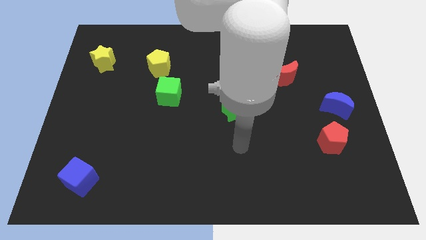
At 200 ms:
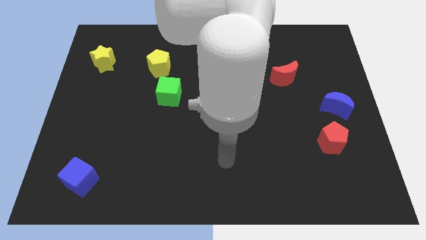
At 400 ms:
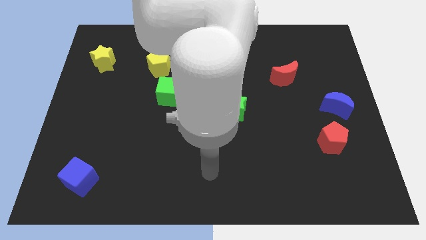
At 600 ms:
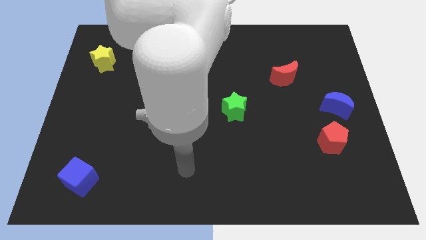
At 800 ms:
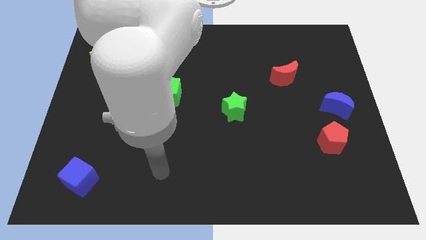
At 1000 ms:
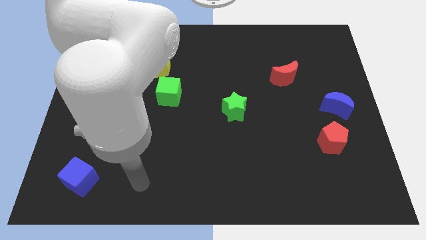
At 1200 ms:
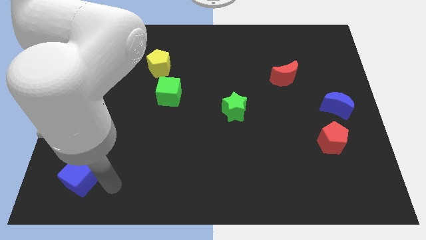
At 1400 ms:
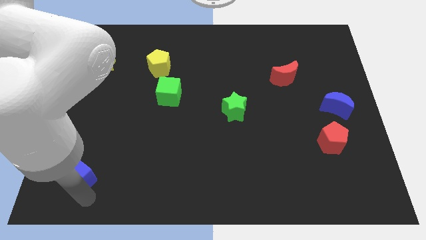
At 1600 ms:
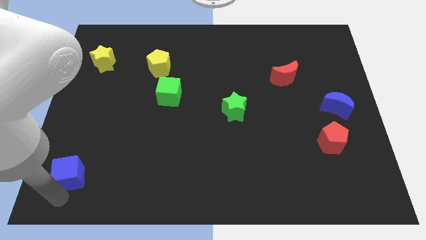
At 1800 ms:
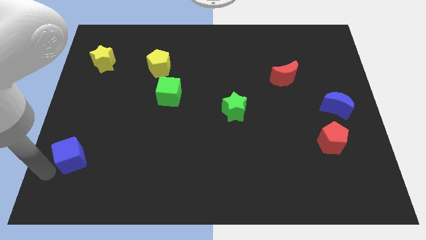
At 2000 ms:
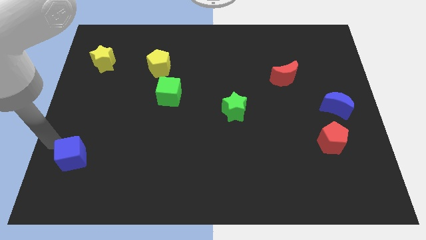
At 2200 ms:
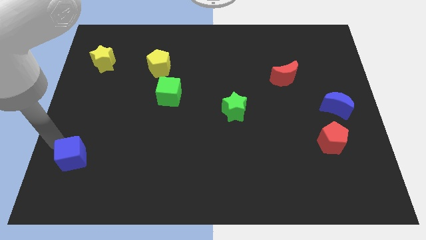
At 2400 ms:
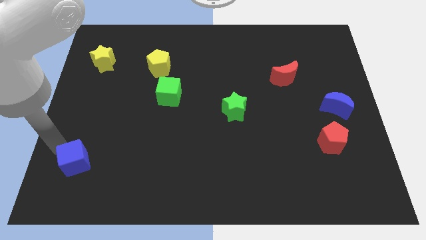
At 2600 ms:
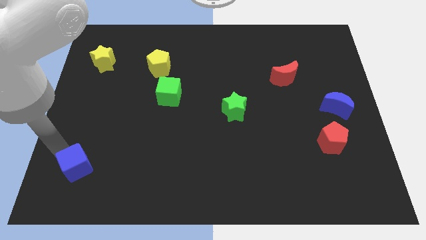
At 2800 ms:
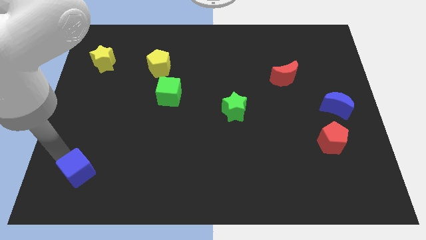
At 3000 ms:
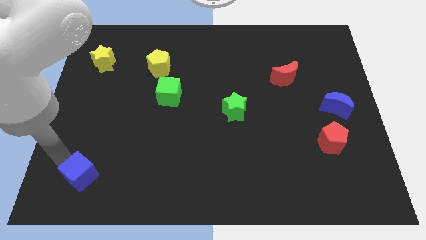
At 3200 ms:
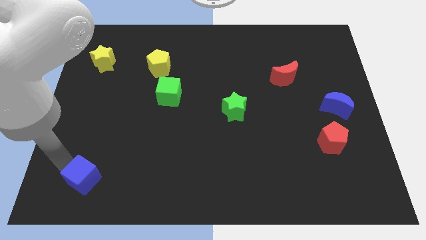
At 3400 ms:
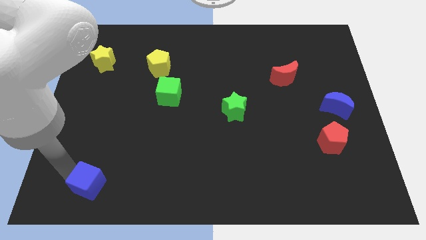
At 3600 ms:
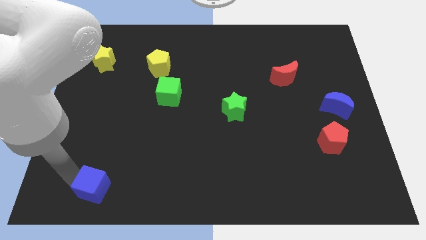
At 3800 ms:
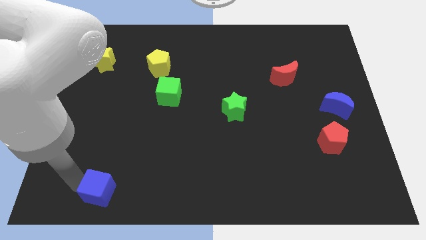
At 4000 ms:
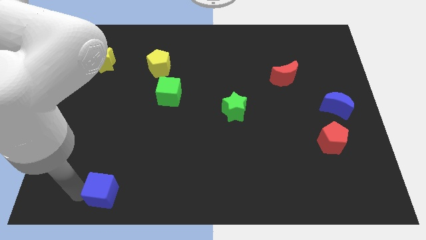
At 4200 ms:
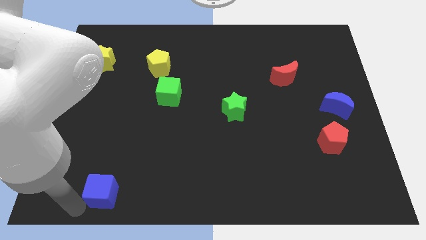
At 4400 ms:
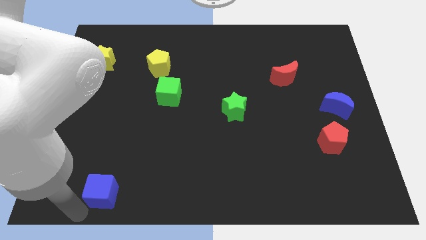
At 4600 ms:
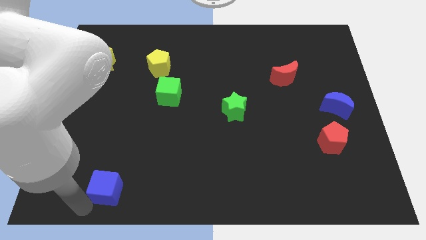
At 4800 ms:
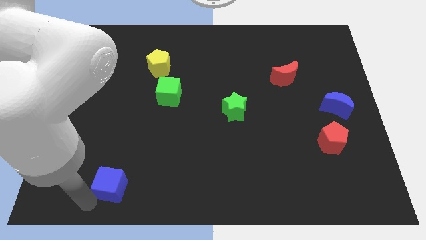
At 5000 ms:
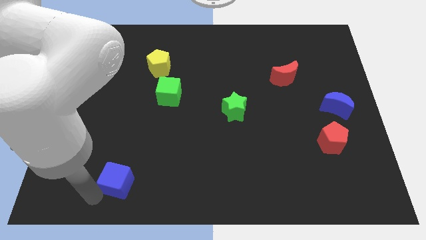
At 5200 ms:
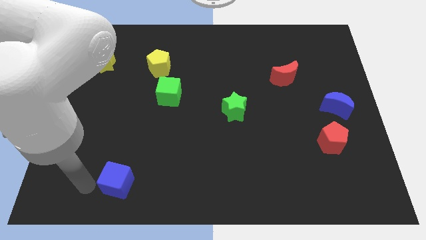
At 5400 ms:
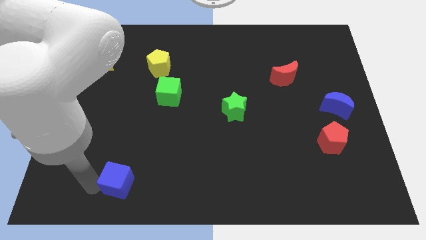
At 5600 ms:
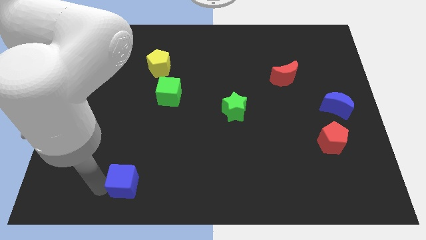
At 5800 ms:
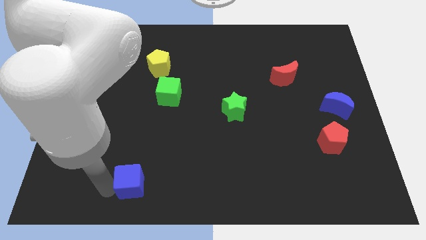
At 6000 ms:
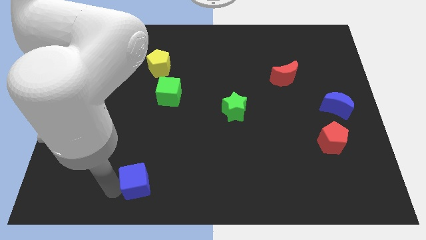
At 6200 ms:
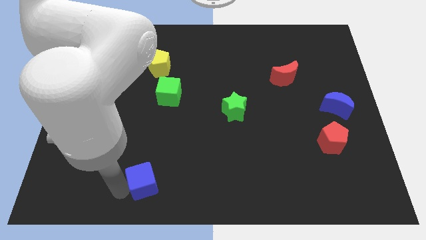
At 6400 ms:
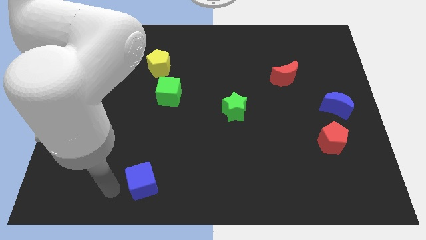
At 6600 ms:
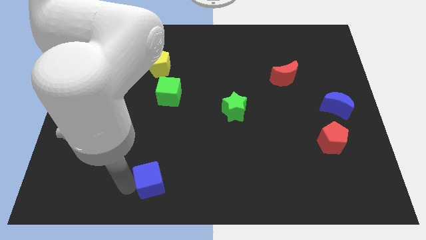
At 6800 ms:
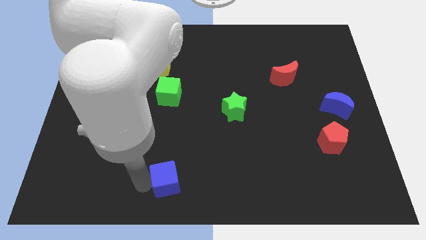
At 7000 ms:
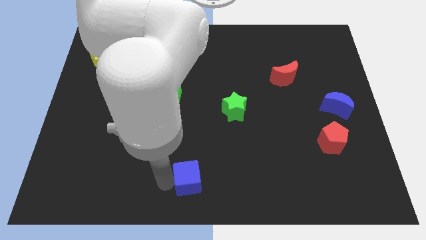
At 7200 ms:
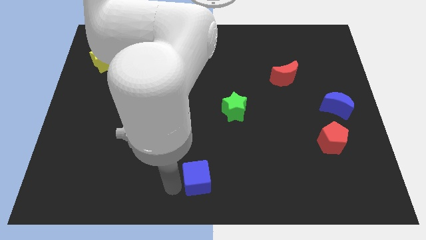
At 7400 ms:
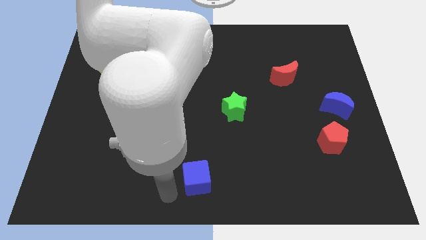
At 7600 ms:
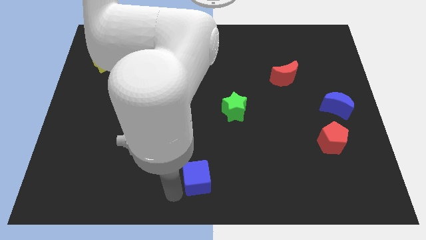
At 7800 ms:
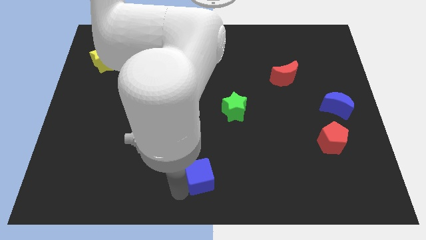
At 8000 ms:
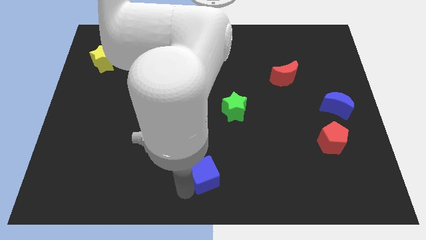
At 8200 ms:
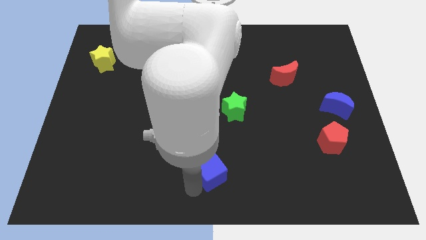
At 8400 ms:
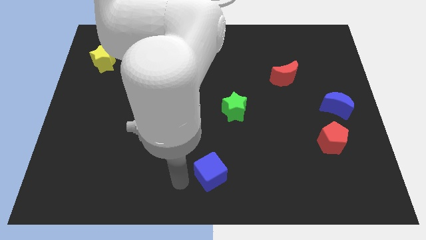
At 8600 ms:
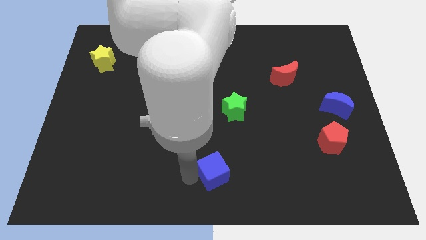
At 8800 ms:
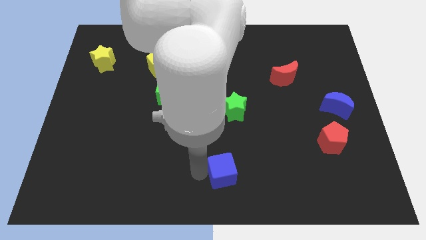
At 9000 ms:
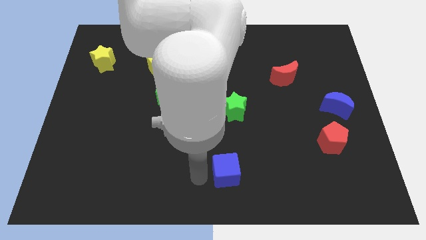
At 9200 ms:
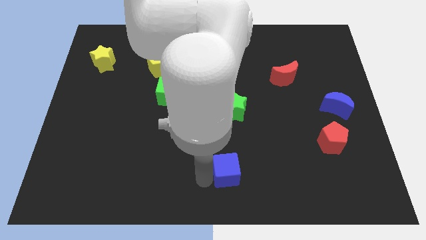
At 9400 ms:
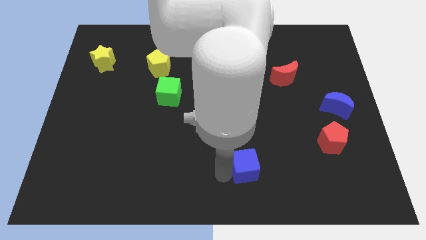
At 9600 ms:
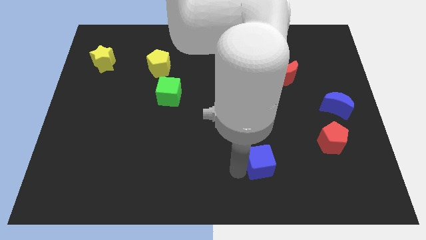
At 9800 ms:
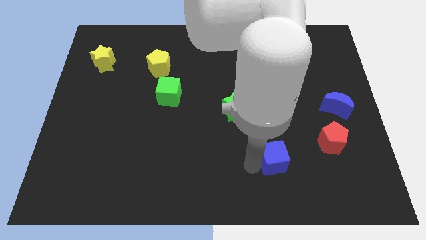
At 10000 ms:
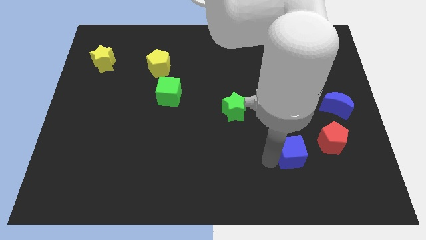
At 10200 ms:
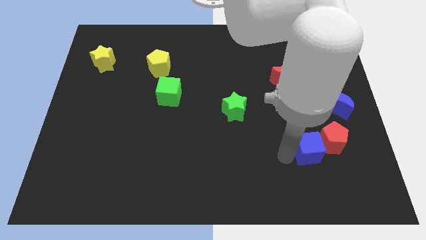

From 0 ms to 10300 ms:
push the blue cube close to the red pentagon

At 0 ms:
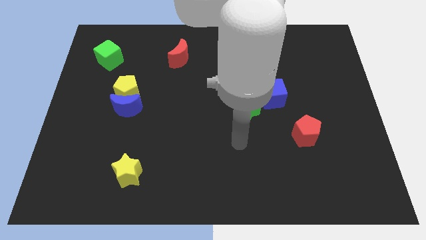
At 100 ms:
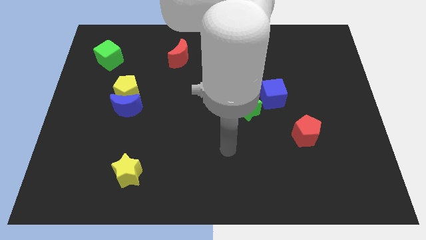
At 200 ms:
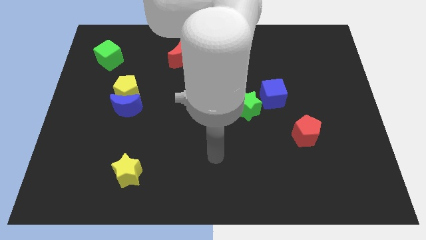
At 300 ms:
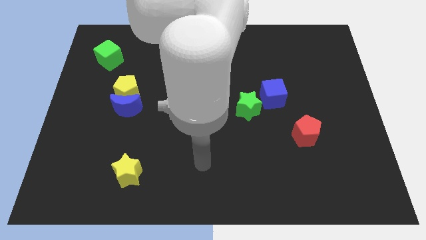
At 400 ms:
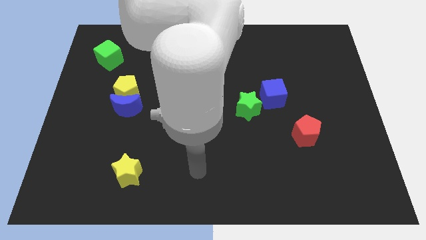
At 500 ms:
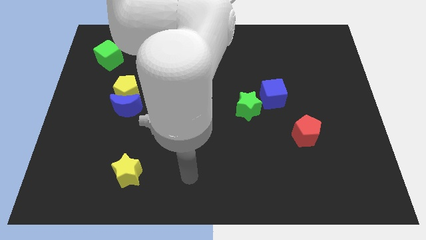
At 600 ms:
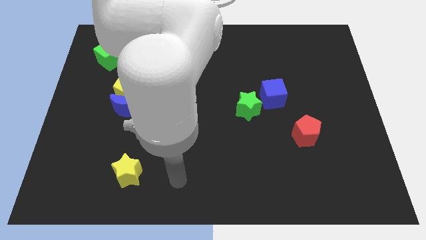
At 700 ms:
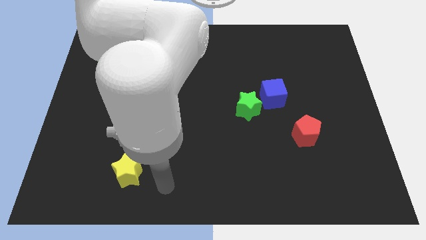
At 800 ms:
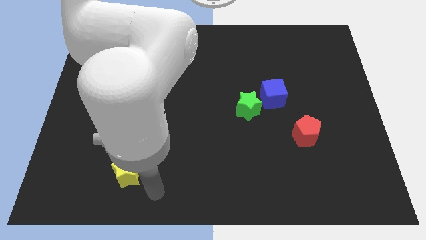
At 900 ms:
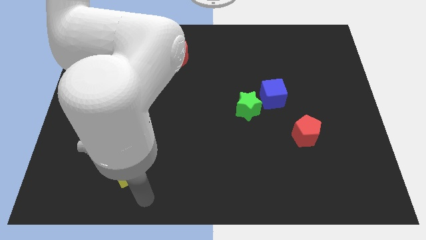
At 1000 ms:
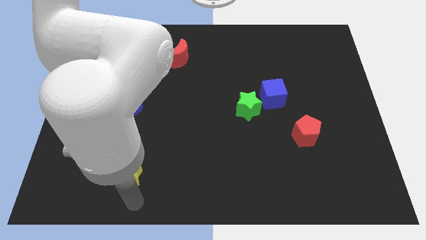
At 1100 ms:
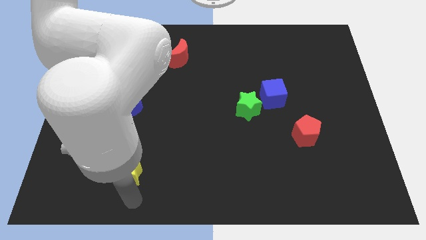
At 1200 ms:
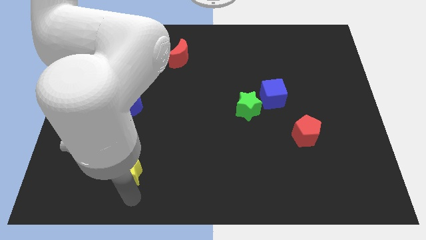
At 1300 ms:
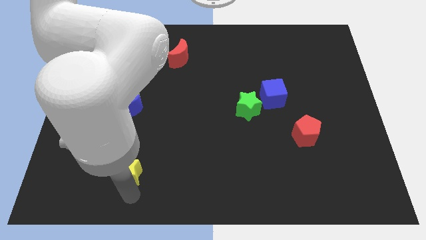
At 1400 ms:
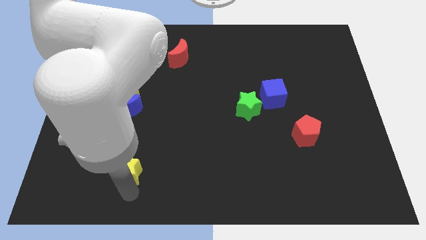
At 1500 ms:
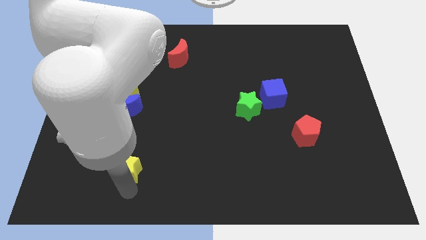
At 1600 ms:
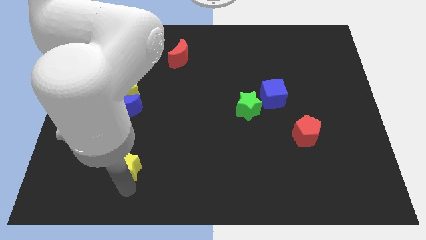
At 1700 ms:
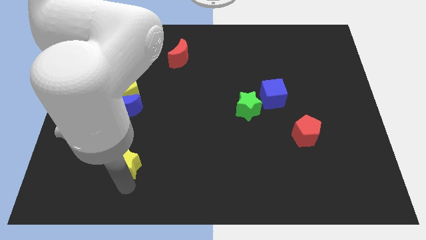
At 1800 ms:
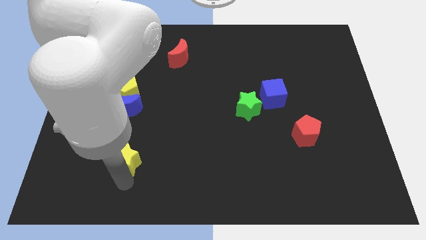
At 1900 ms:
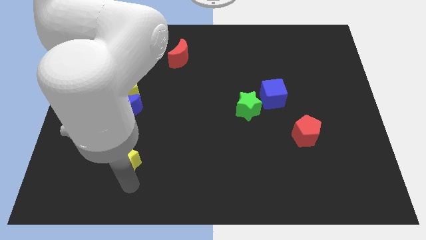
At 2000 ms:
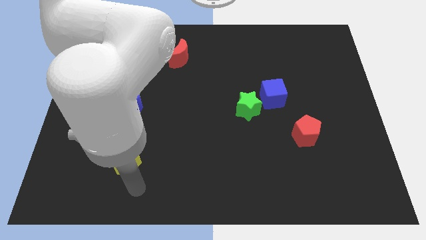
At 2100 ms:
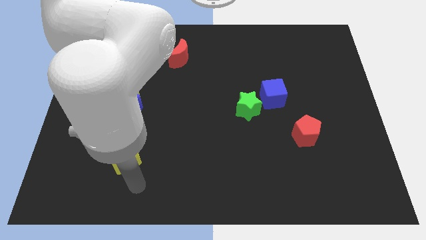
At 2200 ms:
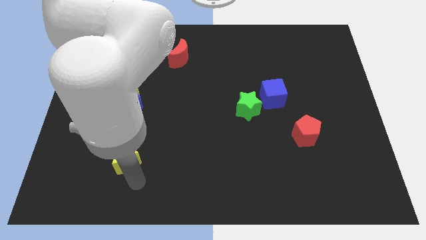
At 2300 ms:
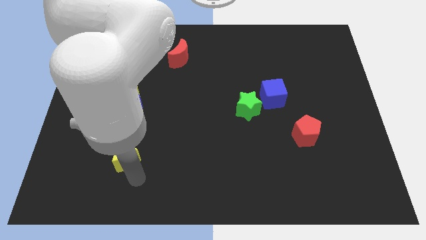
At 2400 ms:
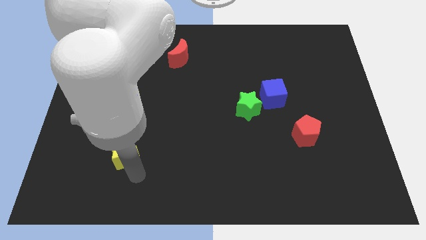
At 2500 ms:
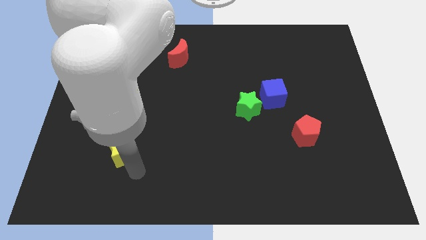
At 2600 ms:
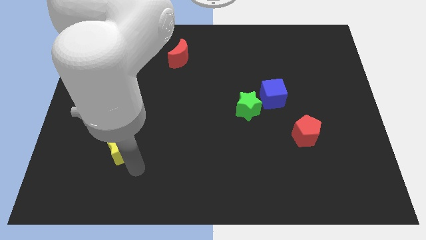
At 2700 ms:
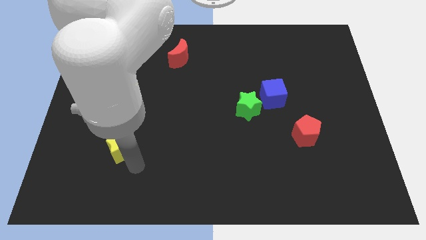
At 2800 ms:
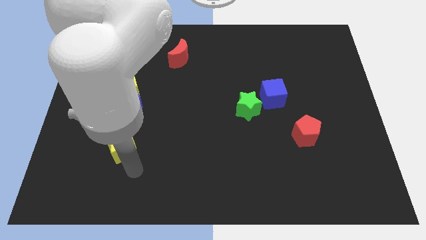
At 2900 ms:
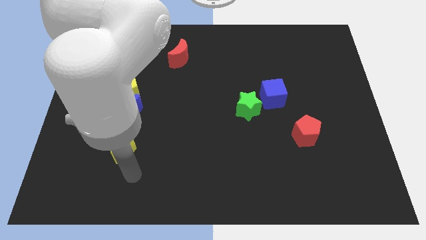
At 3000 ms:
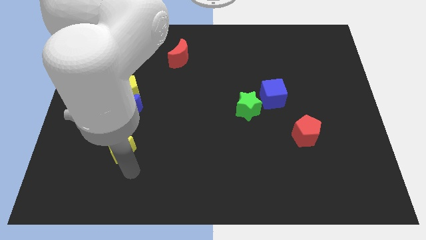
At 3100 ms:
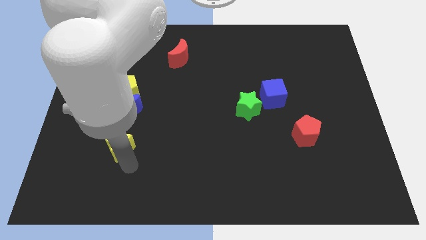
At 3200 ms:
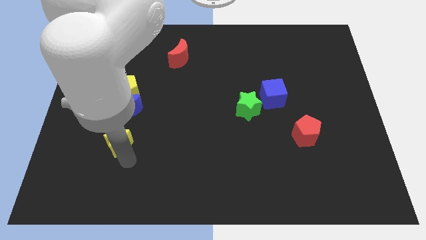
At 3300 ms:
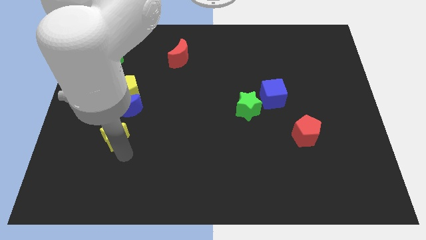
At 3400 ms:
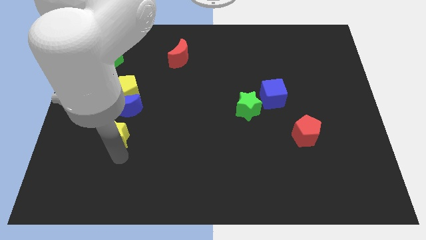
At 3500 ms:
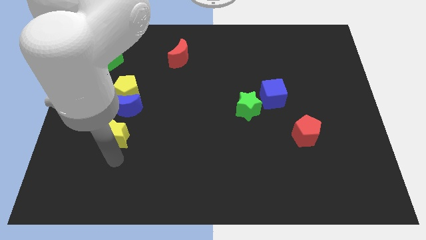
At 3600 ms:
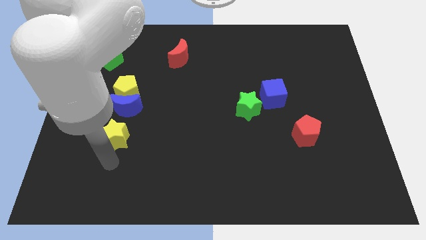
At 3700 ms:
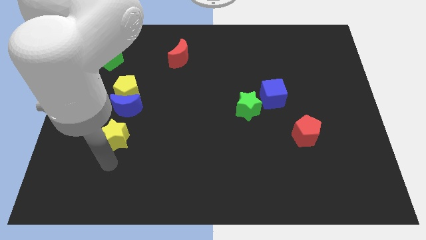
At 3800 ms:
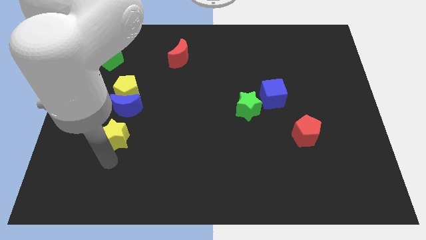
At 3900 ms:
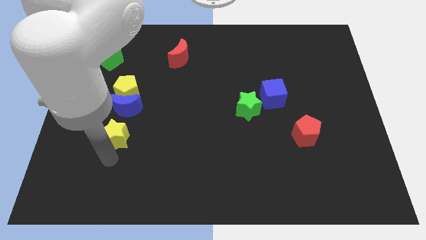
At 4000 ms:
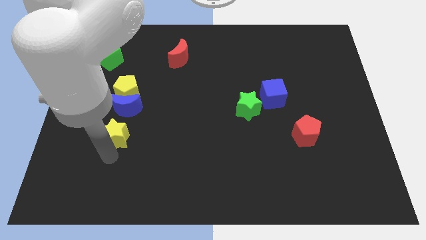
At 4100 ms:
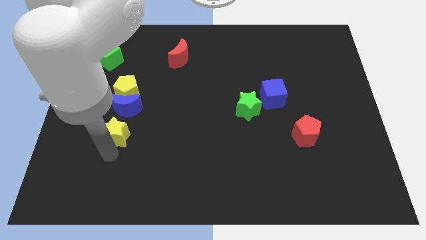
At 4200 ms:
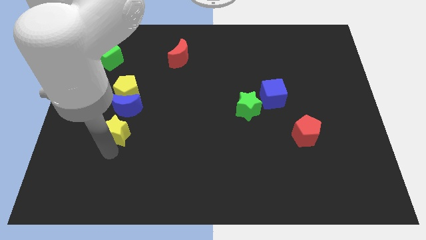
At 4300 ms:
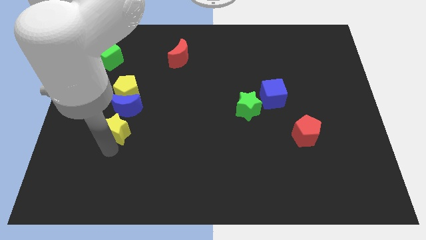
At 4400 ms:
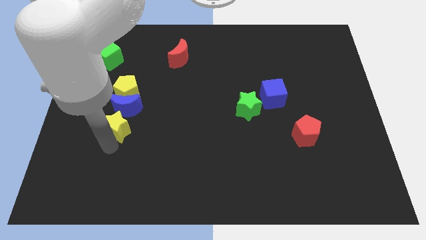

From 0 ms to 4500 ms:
move the yellow star towards the blue moon
